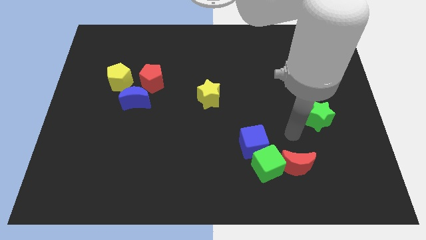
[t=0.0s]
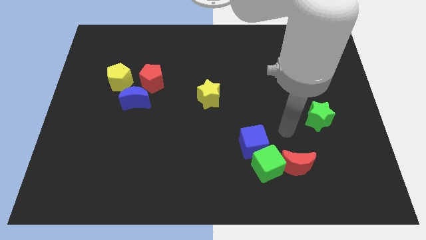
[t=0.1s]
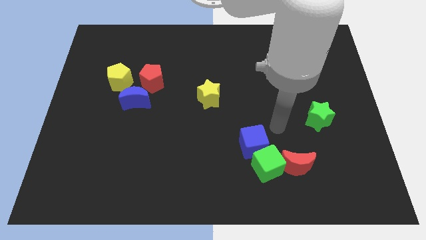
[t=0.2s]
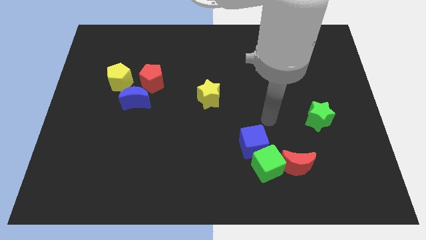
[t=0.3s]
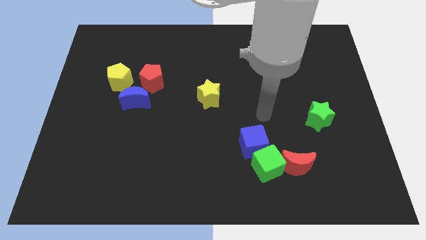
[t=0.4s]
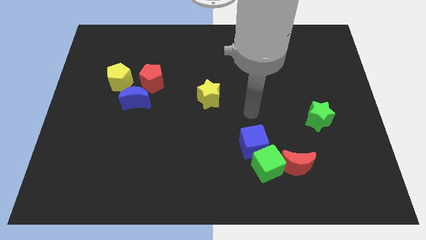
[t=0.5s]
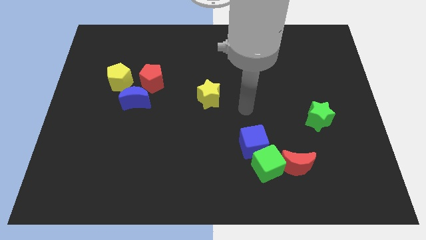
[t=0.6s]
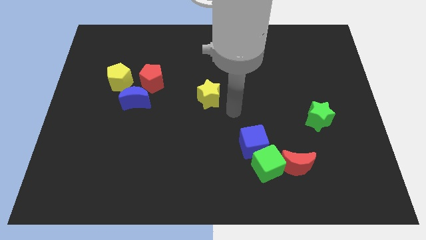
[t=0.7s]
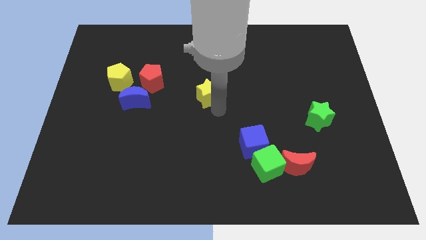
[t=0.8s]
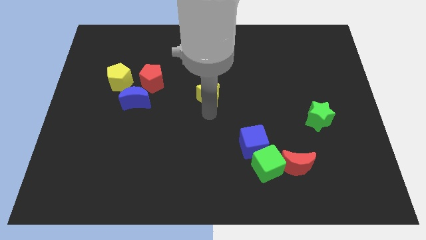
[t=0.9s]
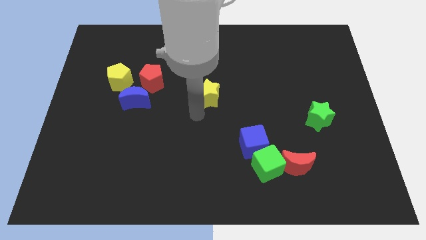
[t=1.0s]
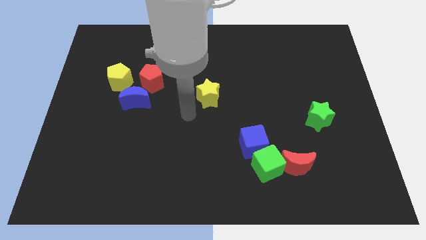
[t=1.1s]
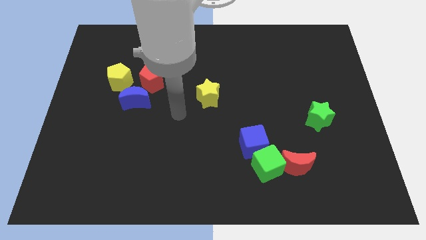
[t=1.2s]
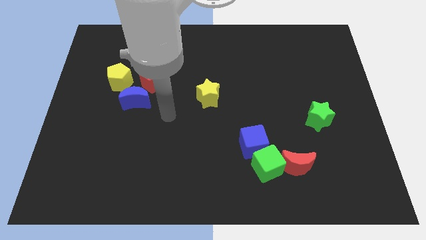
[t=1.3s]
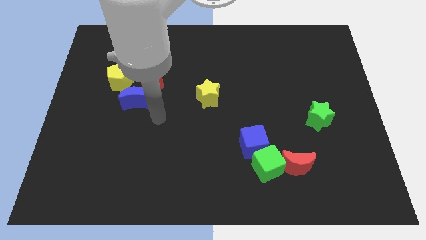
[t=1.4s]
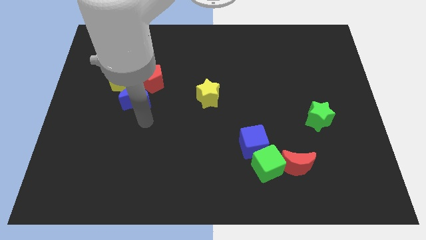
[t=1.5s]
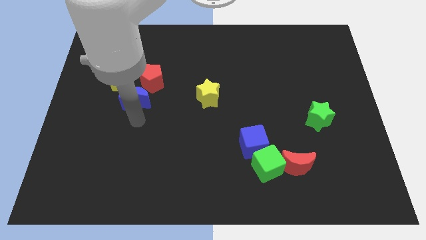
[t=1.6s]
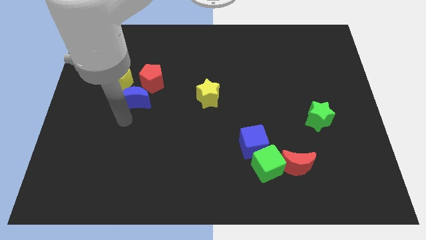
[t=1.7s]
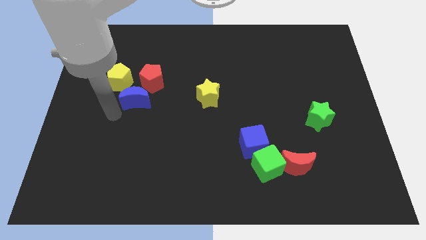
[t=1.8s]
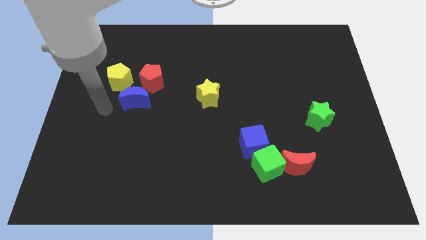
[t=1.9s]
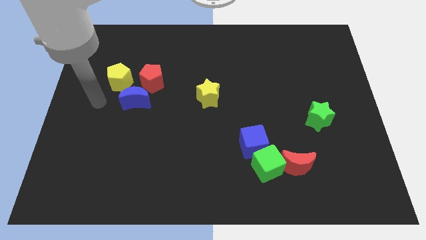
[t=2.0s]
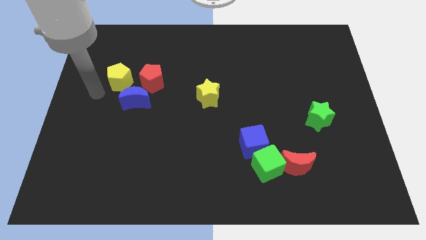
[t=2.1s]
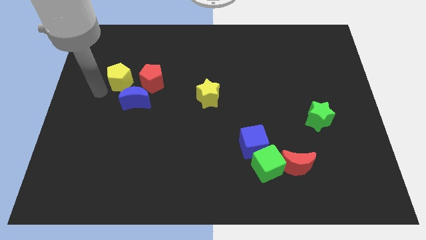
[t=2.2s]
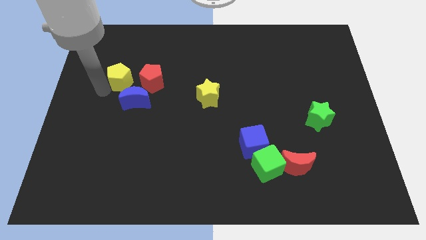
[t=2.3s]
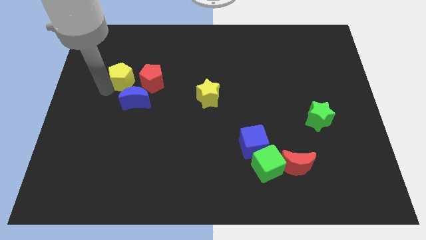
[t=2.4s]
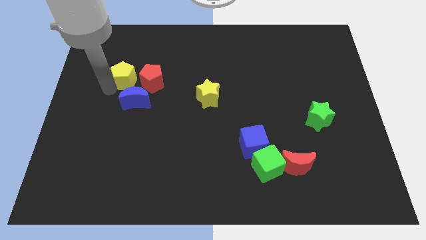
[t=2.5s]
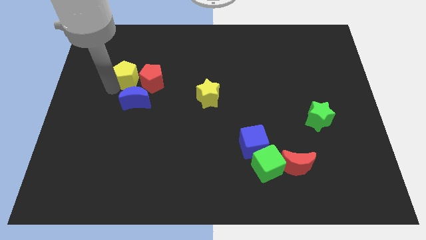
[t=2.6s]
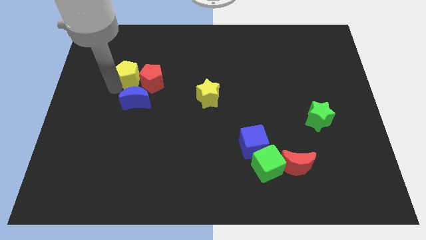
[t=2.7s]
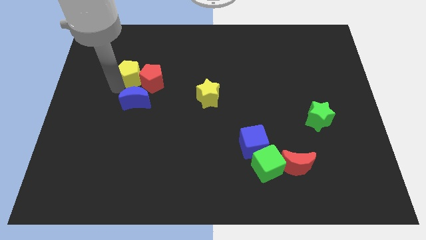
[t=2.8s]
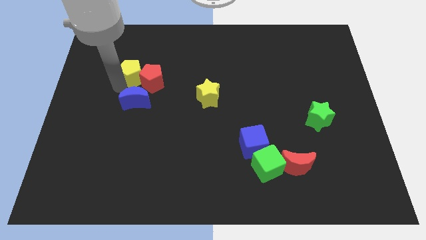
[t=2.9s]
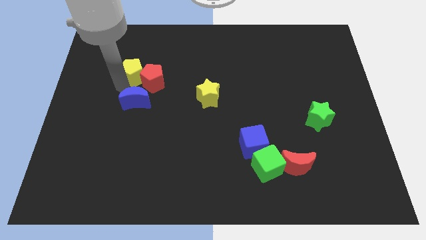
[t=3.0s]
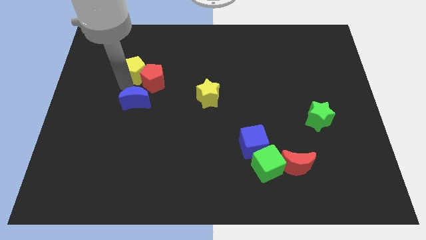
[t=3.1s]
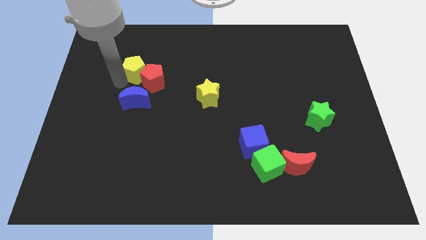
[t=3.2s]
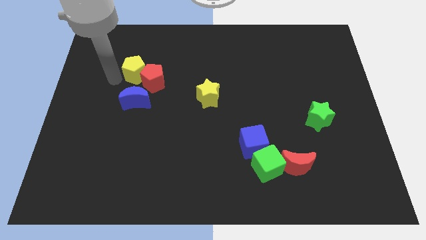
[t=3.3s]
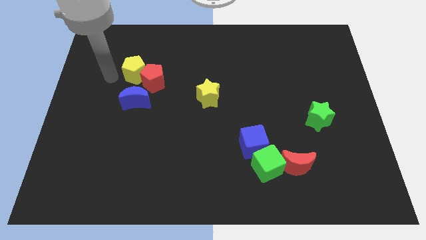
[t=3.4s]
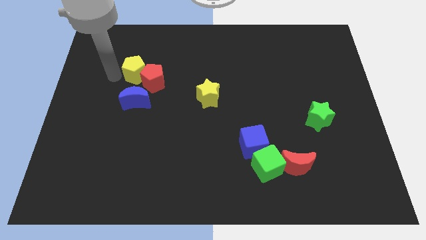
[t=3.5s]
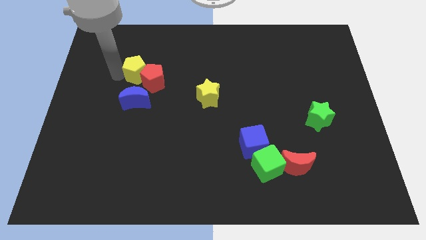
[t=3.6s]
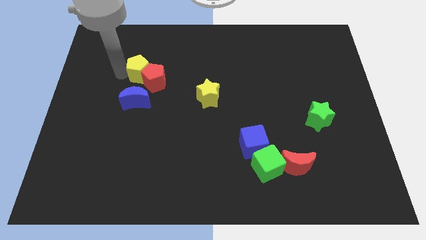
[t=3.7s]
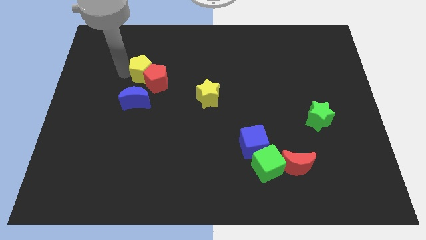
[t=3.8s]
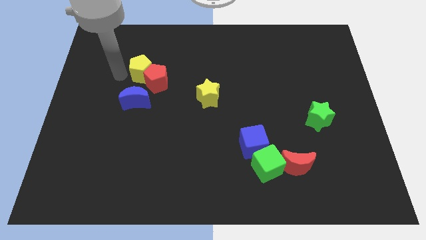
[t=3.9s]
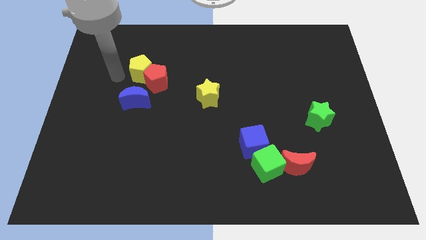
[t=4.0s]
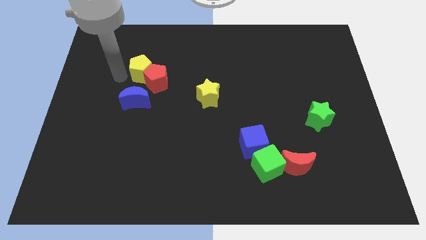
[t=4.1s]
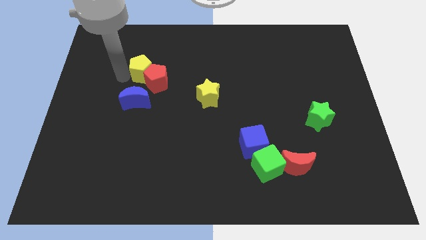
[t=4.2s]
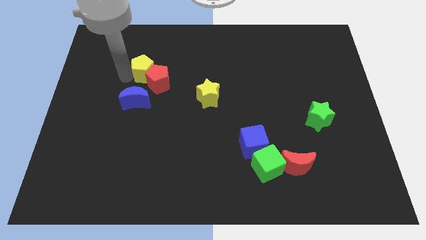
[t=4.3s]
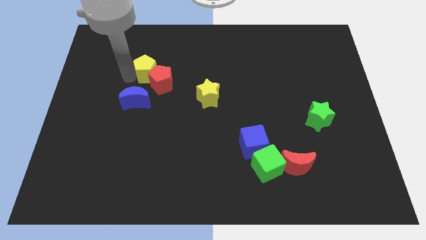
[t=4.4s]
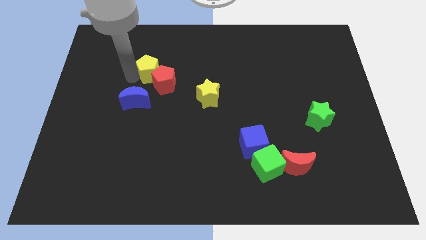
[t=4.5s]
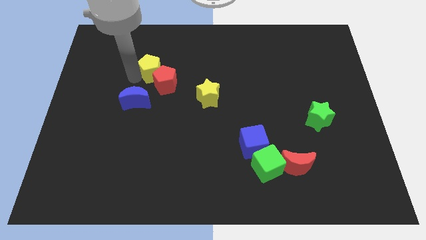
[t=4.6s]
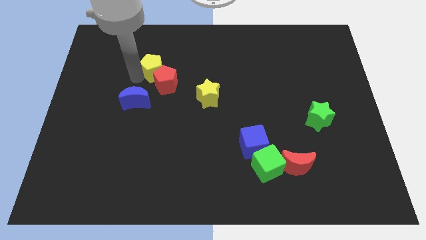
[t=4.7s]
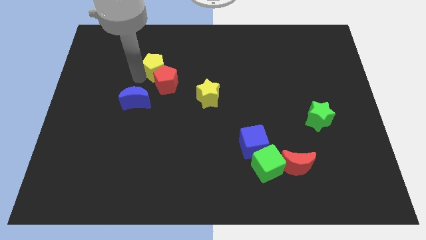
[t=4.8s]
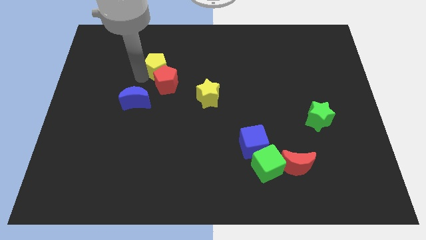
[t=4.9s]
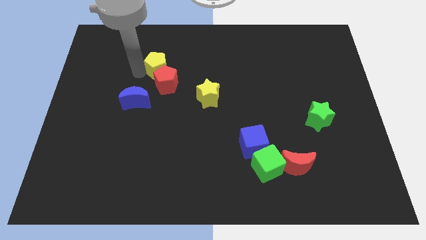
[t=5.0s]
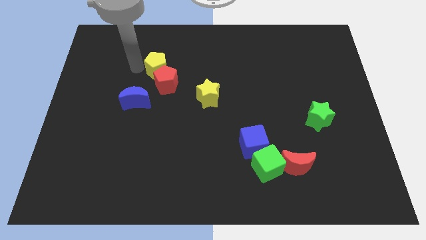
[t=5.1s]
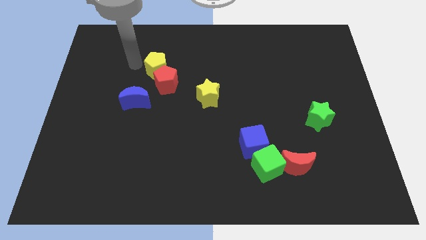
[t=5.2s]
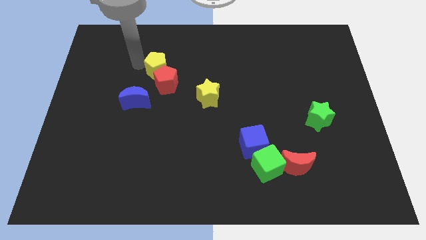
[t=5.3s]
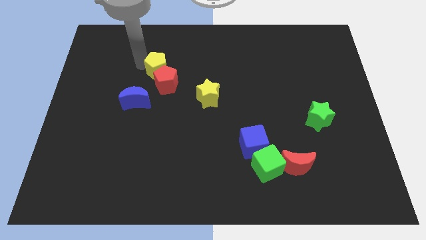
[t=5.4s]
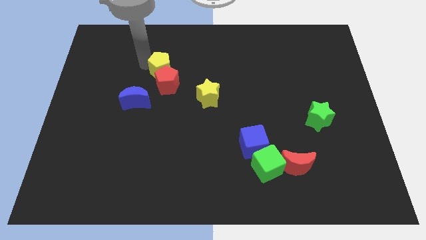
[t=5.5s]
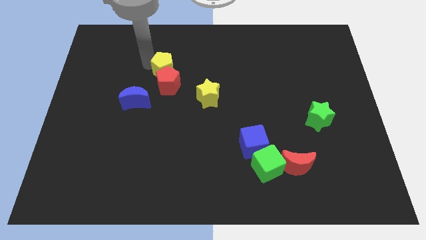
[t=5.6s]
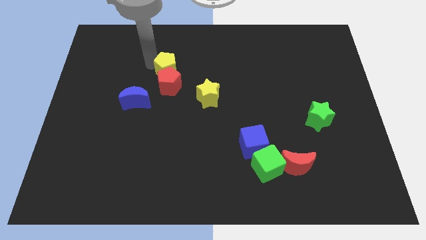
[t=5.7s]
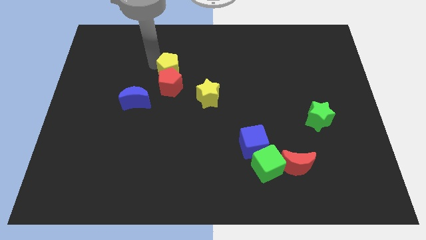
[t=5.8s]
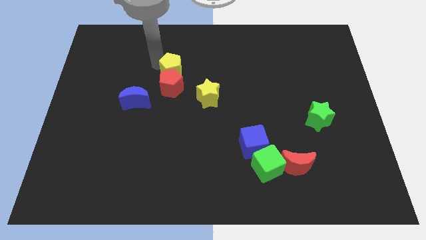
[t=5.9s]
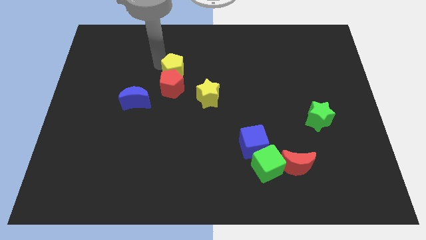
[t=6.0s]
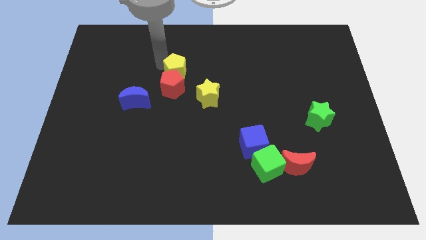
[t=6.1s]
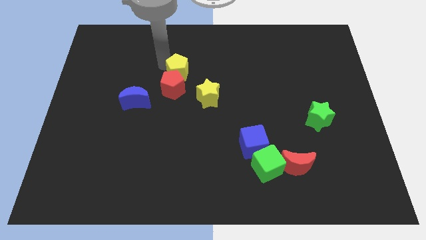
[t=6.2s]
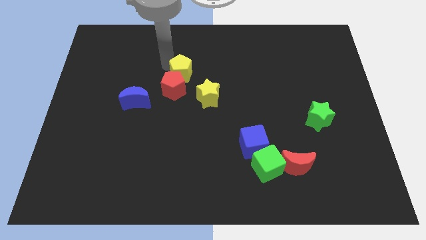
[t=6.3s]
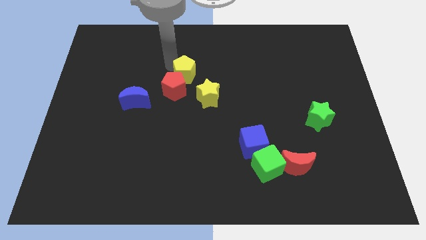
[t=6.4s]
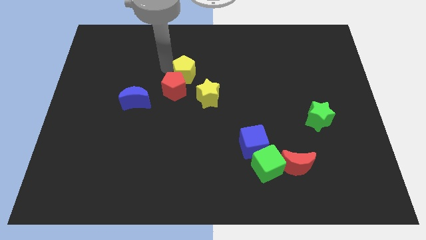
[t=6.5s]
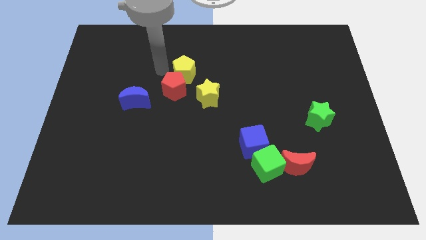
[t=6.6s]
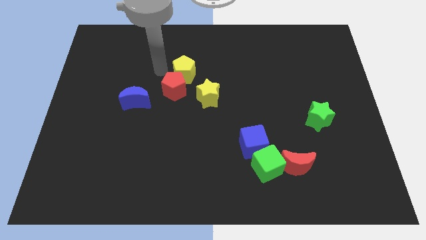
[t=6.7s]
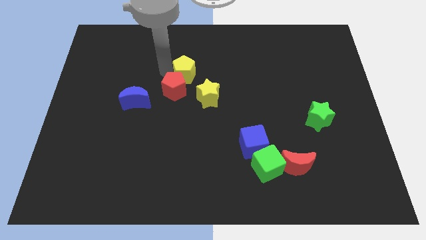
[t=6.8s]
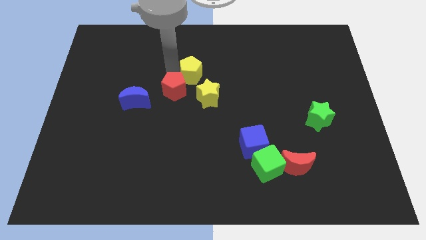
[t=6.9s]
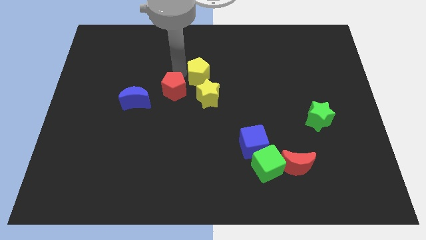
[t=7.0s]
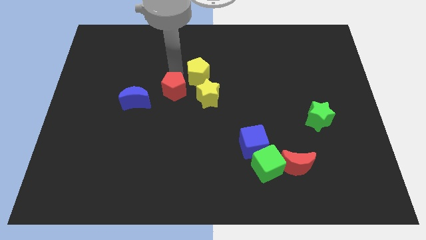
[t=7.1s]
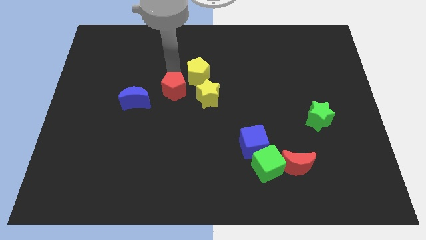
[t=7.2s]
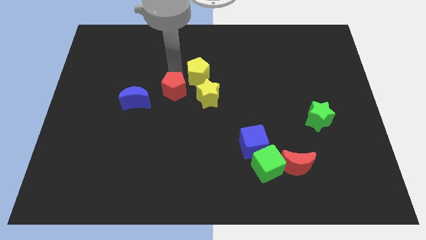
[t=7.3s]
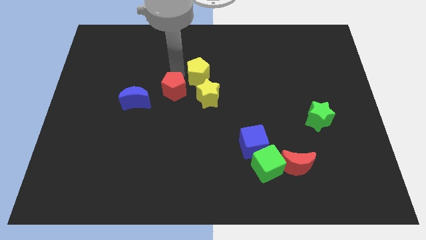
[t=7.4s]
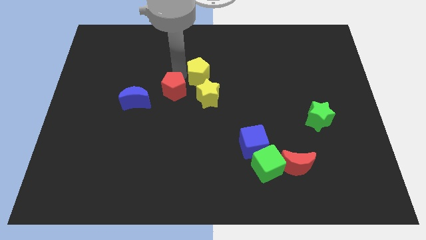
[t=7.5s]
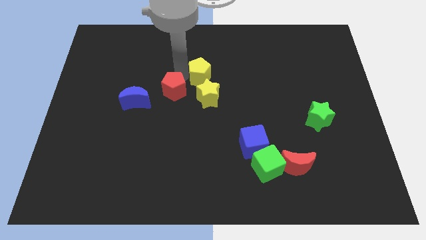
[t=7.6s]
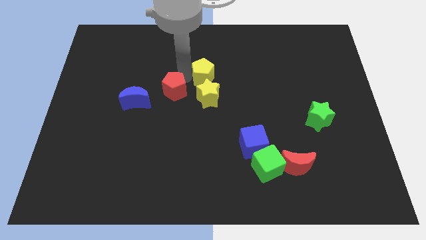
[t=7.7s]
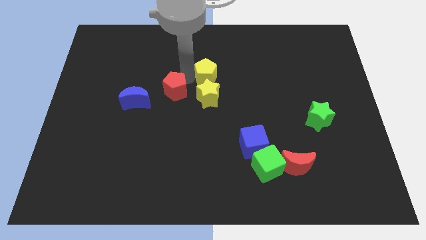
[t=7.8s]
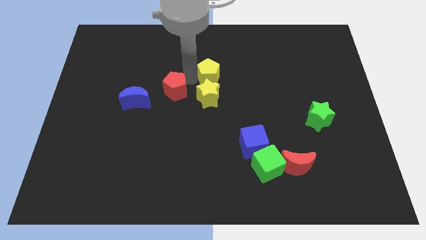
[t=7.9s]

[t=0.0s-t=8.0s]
slide the yellow pentagon to the top right side of the yellow star
